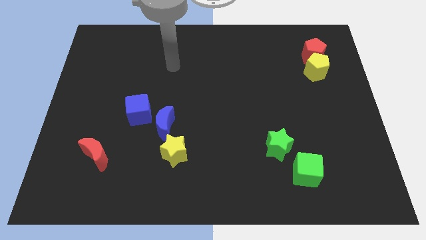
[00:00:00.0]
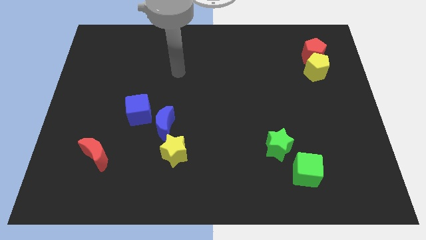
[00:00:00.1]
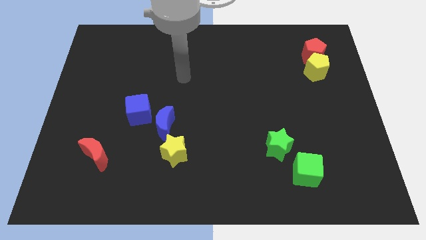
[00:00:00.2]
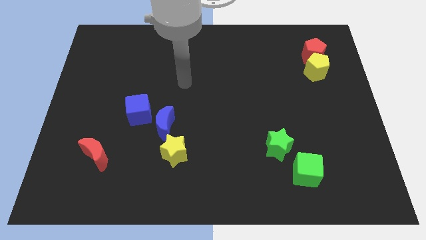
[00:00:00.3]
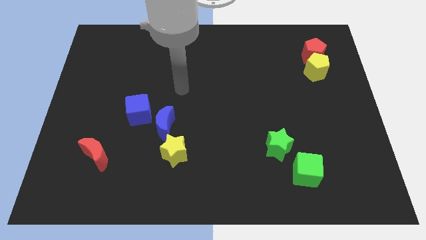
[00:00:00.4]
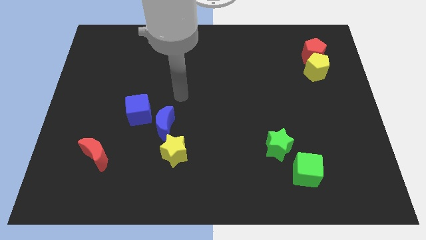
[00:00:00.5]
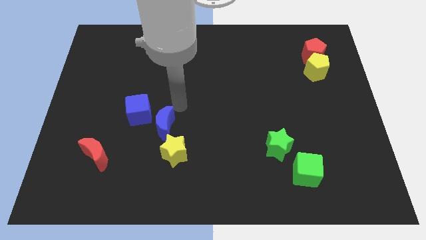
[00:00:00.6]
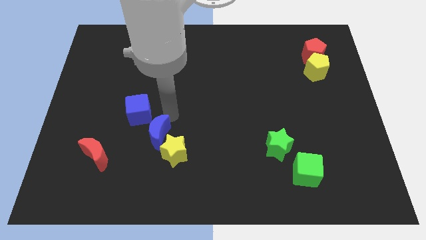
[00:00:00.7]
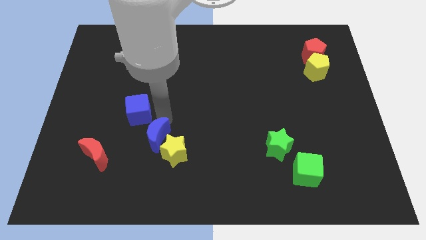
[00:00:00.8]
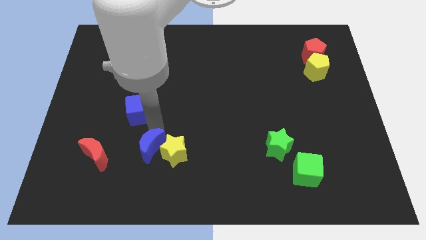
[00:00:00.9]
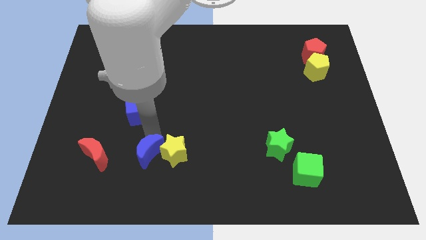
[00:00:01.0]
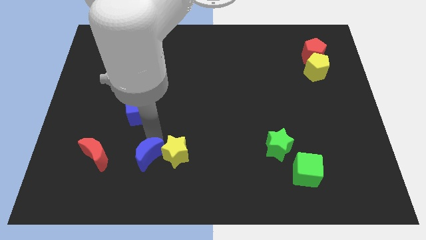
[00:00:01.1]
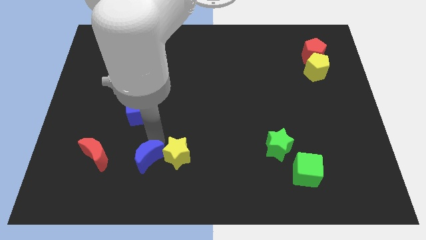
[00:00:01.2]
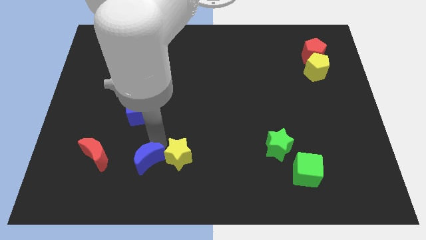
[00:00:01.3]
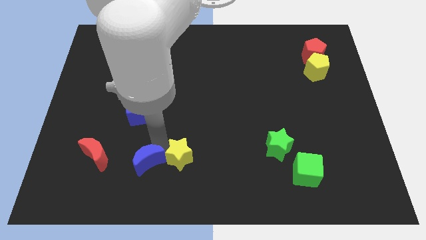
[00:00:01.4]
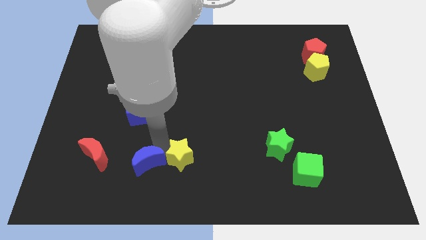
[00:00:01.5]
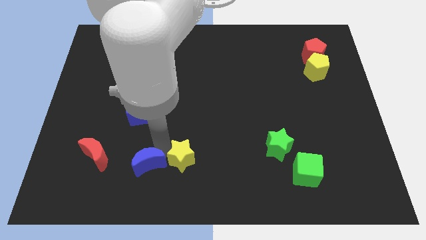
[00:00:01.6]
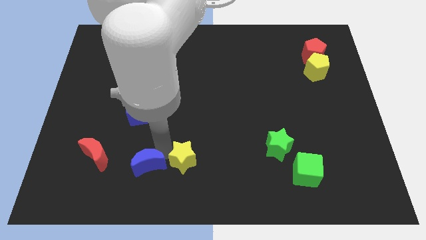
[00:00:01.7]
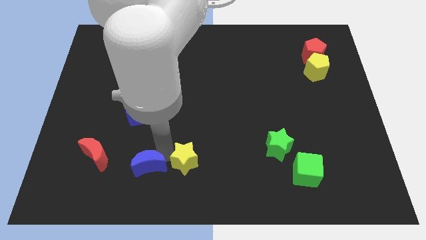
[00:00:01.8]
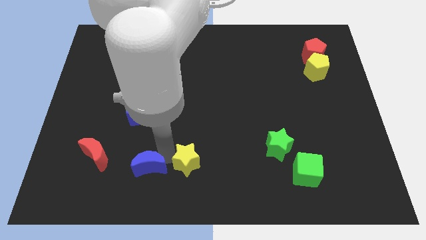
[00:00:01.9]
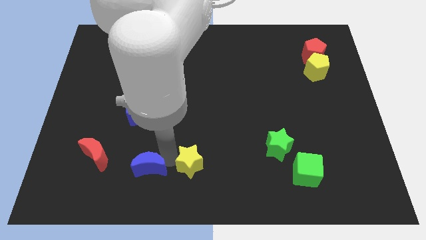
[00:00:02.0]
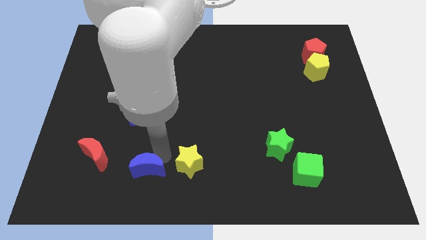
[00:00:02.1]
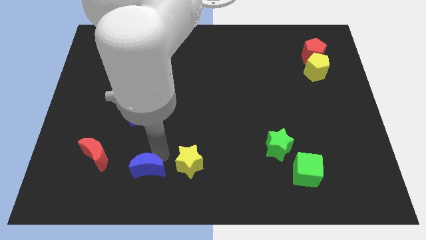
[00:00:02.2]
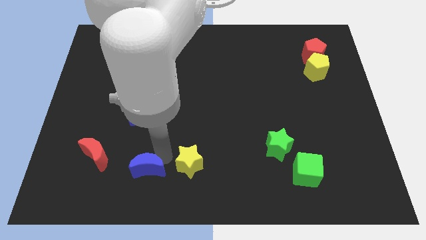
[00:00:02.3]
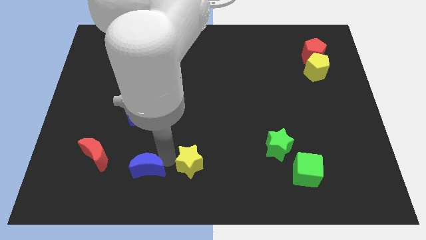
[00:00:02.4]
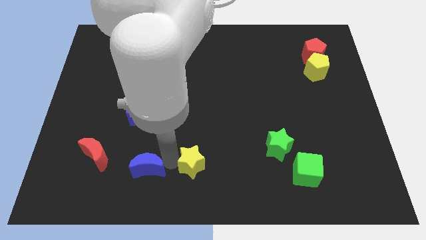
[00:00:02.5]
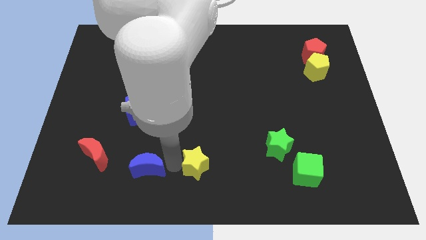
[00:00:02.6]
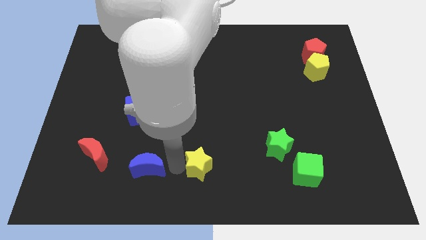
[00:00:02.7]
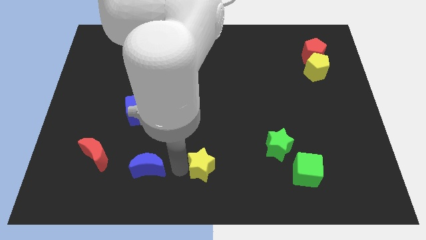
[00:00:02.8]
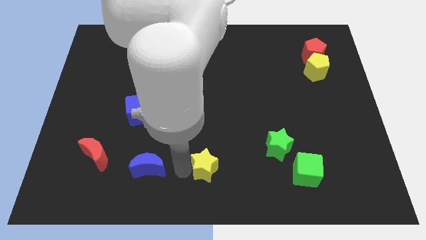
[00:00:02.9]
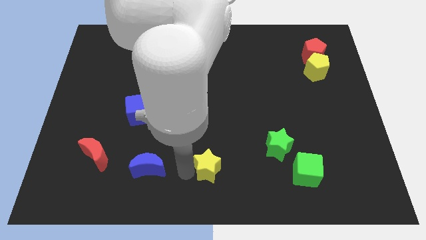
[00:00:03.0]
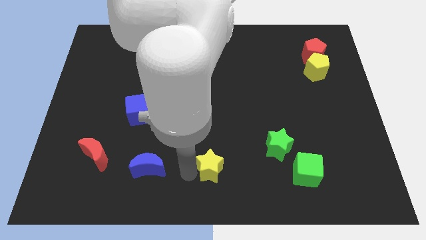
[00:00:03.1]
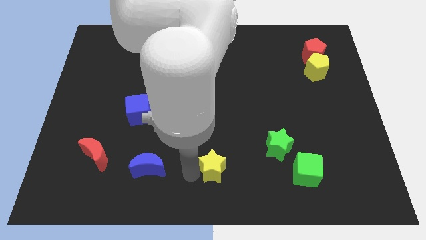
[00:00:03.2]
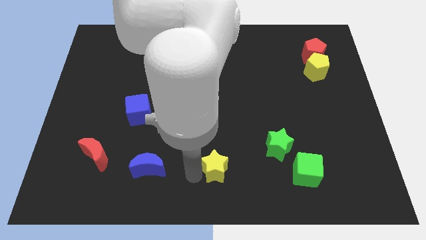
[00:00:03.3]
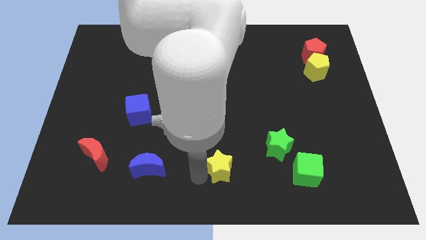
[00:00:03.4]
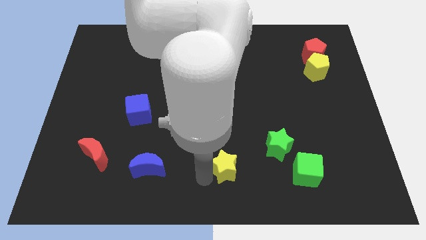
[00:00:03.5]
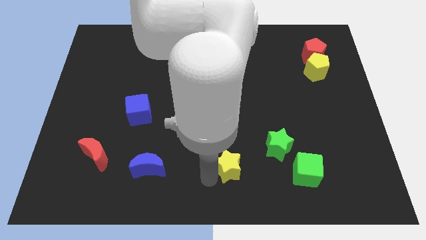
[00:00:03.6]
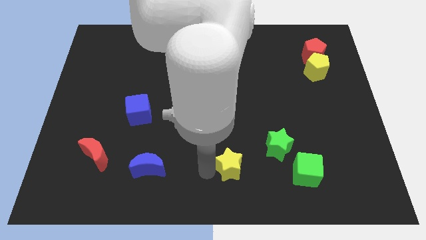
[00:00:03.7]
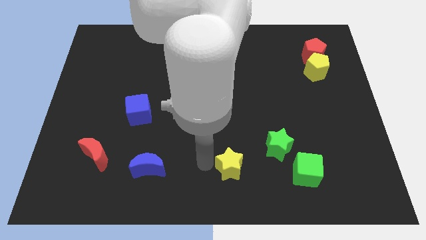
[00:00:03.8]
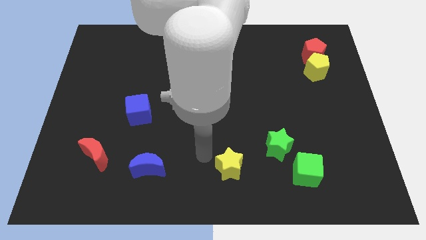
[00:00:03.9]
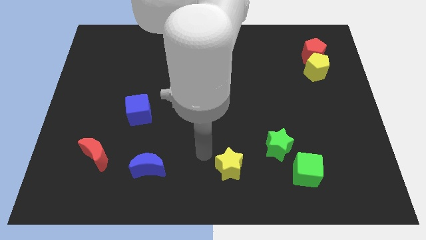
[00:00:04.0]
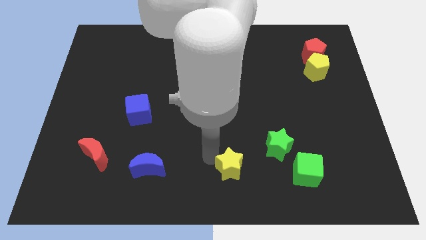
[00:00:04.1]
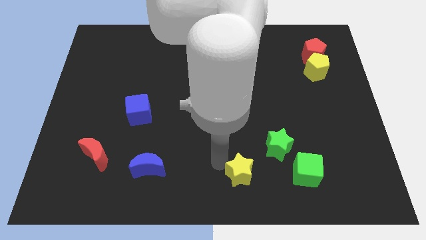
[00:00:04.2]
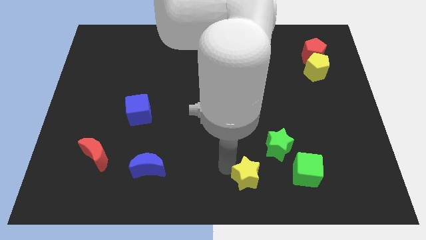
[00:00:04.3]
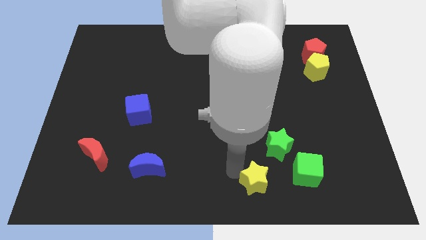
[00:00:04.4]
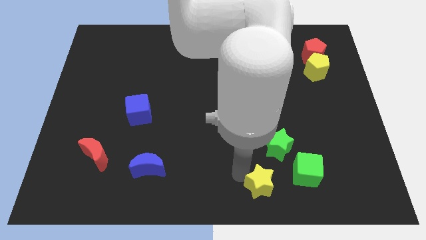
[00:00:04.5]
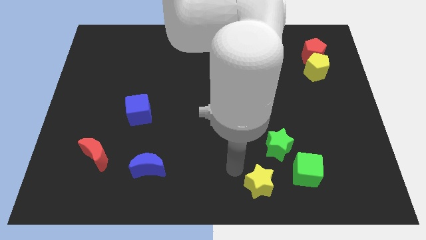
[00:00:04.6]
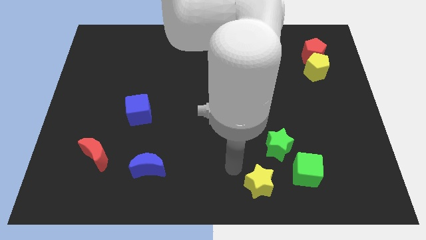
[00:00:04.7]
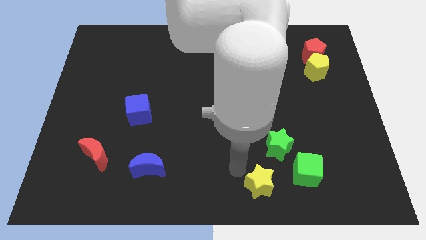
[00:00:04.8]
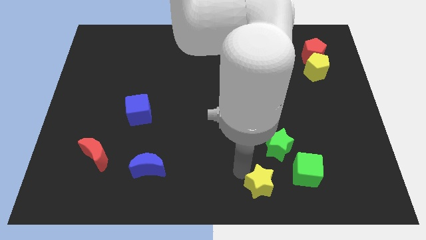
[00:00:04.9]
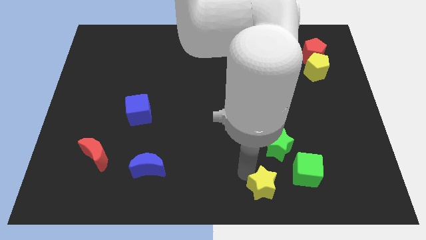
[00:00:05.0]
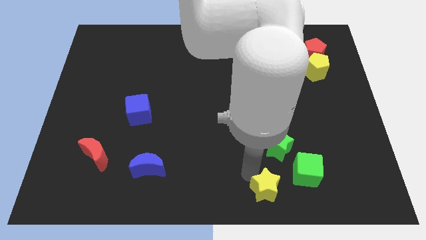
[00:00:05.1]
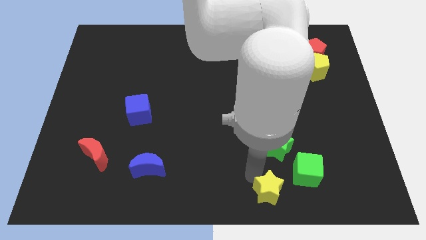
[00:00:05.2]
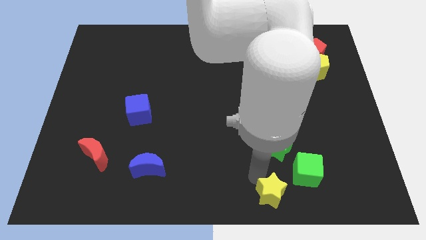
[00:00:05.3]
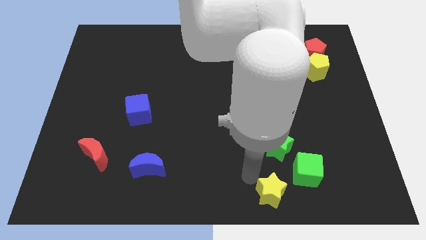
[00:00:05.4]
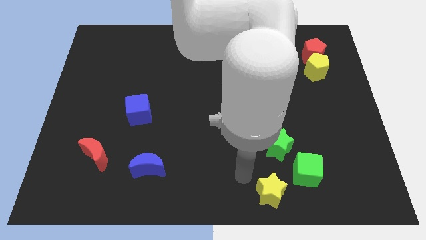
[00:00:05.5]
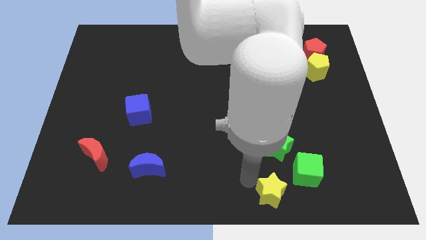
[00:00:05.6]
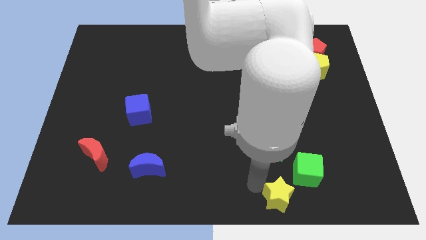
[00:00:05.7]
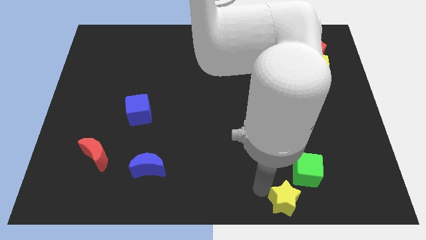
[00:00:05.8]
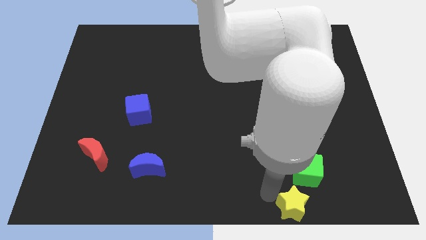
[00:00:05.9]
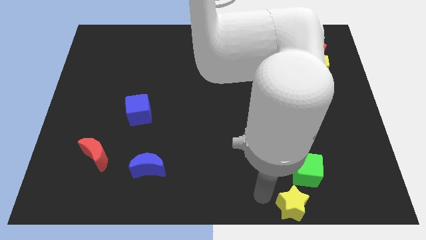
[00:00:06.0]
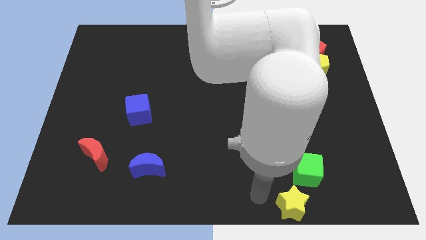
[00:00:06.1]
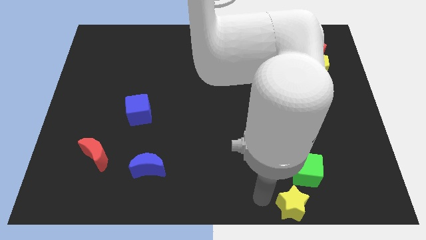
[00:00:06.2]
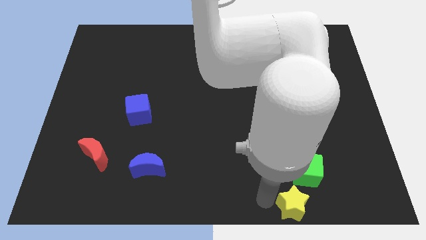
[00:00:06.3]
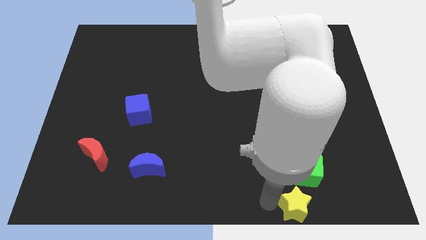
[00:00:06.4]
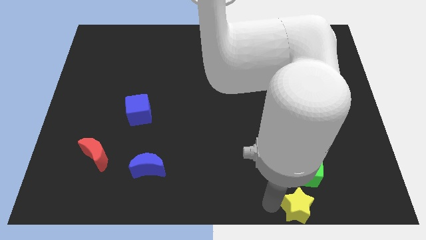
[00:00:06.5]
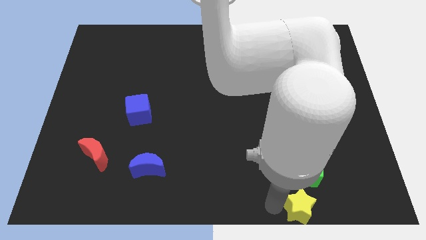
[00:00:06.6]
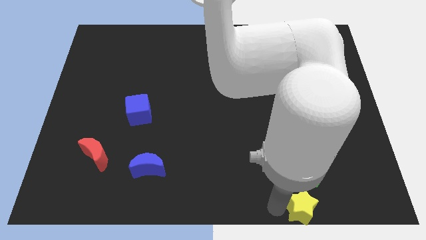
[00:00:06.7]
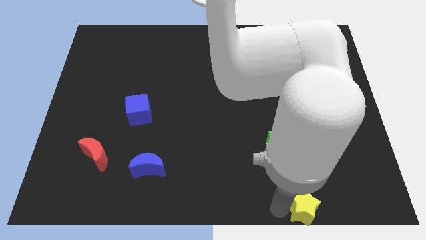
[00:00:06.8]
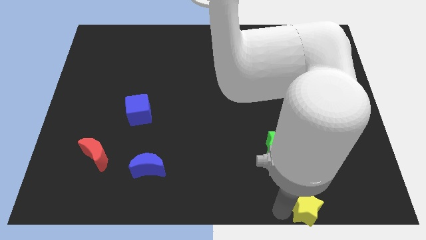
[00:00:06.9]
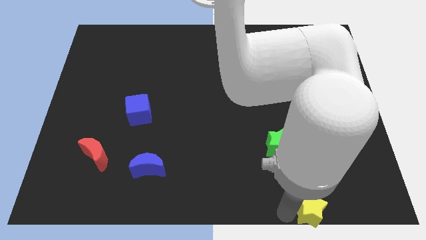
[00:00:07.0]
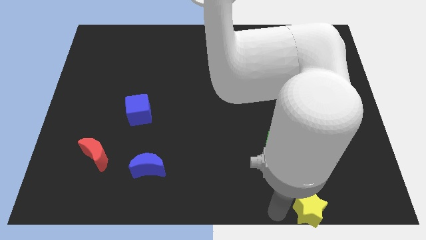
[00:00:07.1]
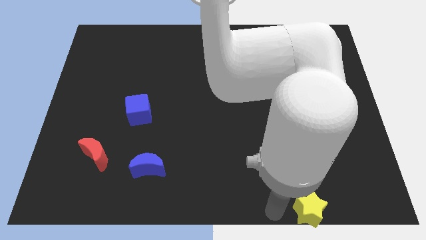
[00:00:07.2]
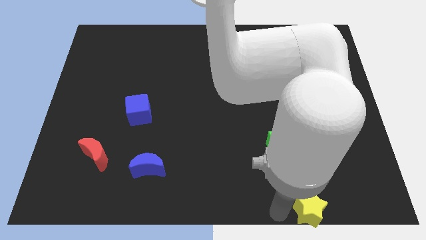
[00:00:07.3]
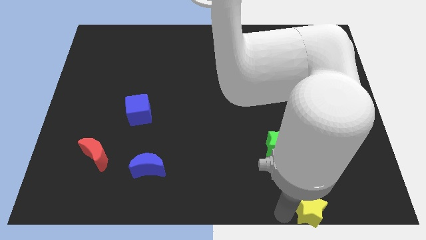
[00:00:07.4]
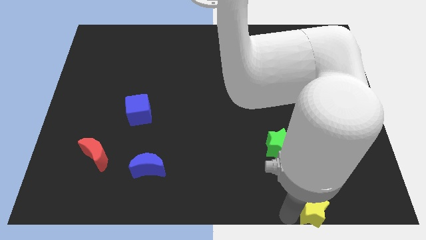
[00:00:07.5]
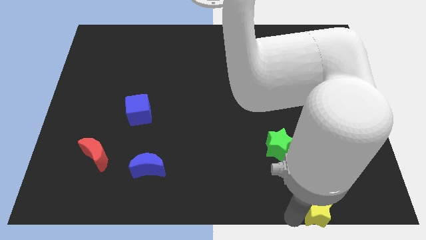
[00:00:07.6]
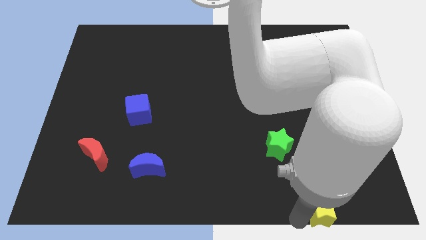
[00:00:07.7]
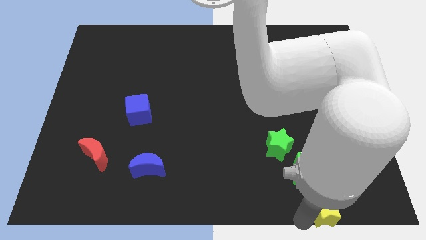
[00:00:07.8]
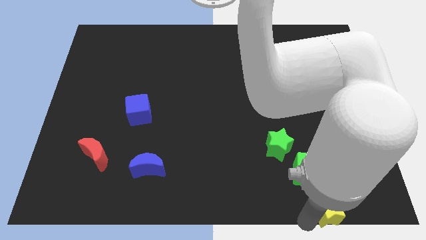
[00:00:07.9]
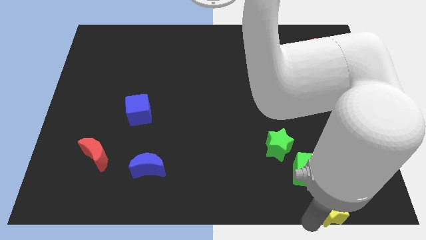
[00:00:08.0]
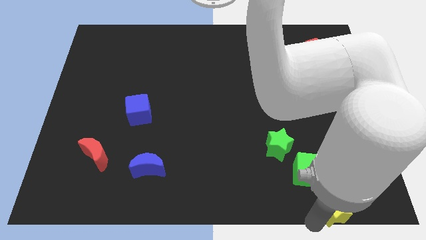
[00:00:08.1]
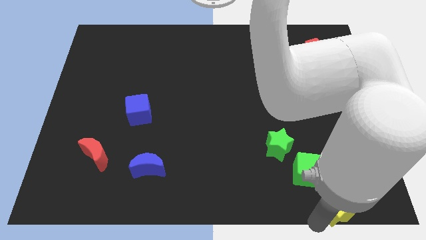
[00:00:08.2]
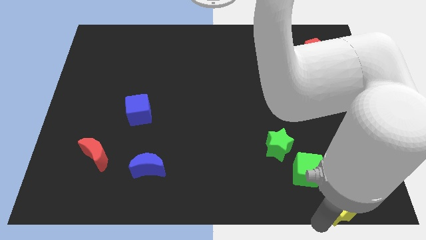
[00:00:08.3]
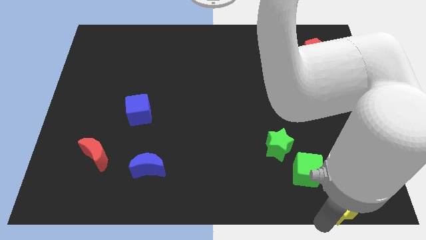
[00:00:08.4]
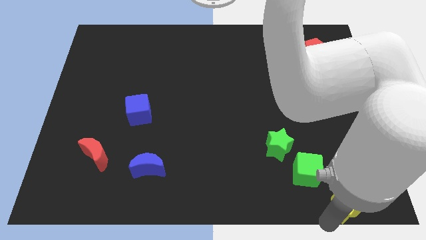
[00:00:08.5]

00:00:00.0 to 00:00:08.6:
push the yellow star to the bottom right corner
